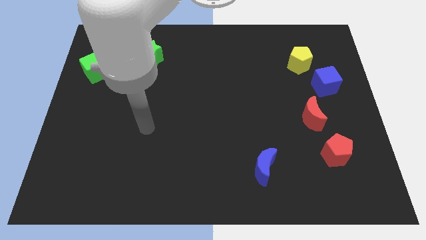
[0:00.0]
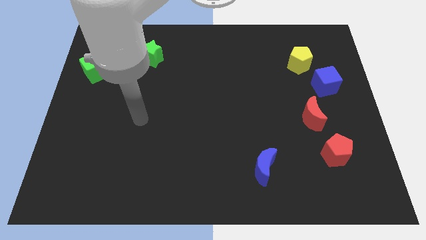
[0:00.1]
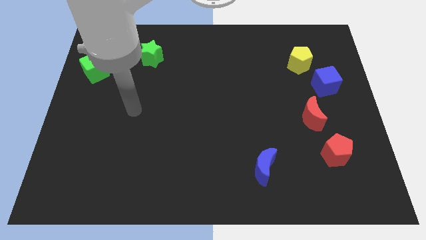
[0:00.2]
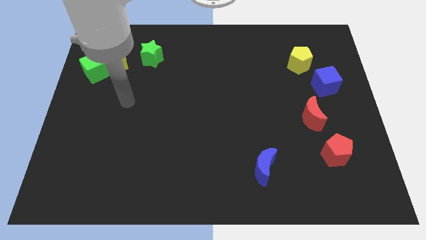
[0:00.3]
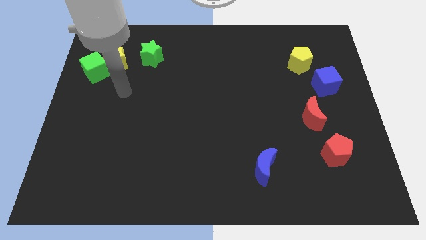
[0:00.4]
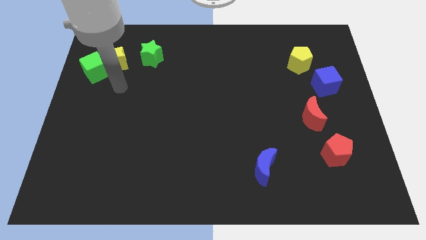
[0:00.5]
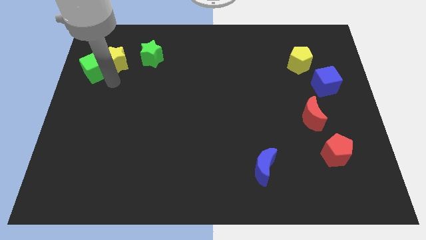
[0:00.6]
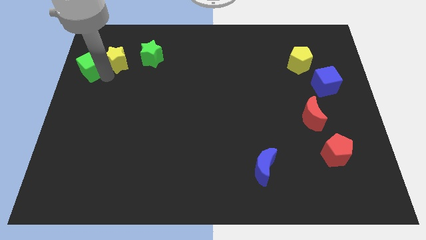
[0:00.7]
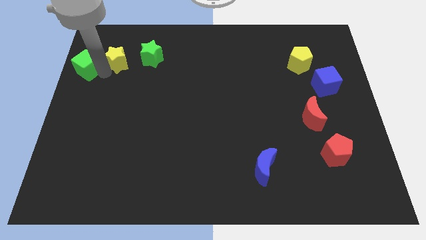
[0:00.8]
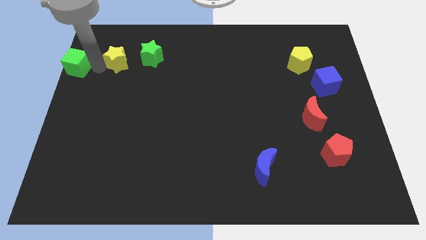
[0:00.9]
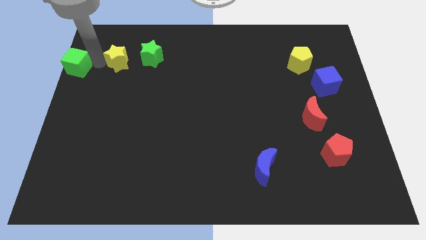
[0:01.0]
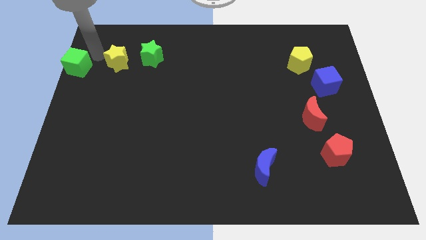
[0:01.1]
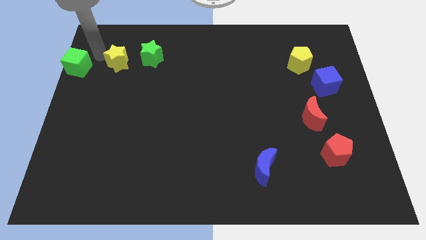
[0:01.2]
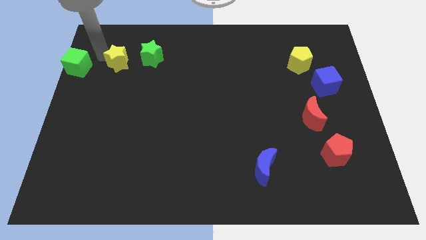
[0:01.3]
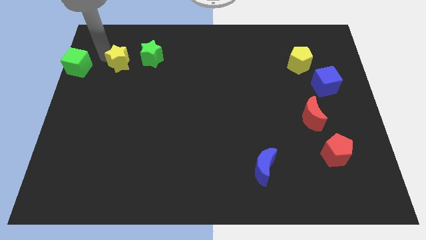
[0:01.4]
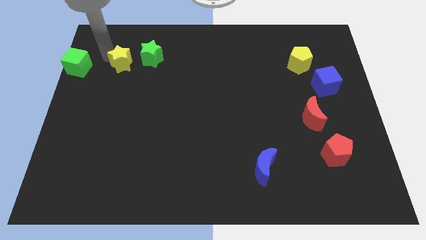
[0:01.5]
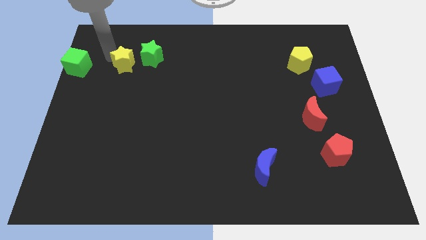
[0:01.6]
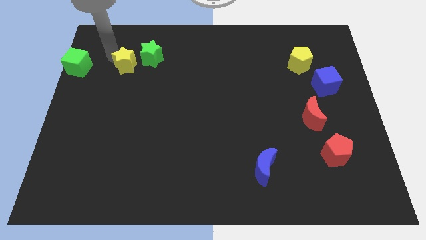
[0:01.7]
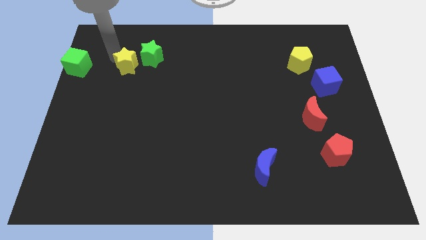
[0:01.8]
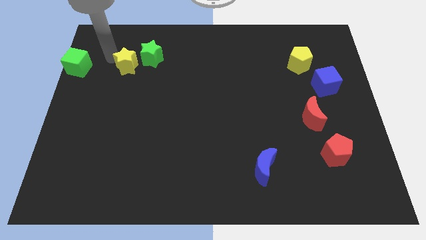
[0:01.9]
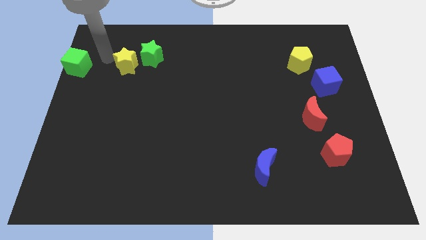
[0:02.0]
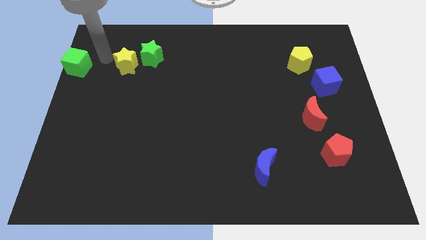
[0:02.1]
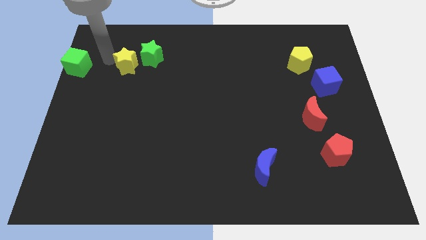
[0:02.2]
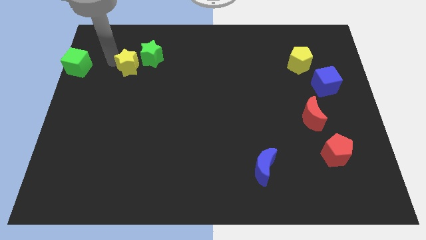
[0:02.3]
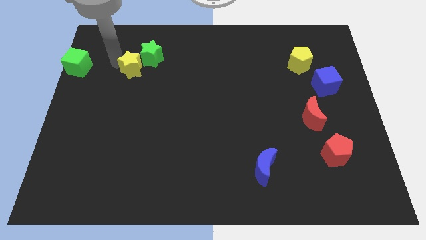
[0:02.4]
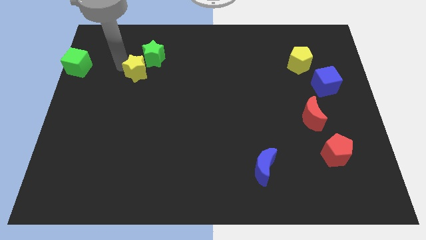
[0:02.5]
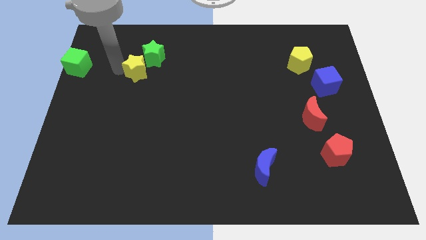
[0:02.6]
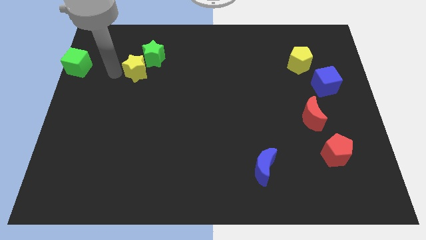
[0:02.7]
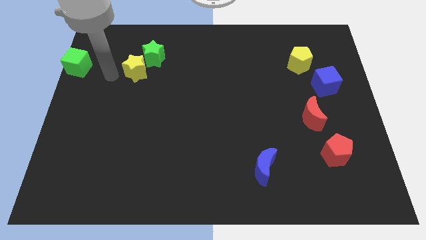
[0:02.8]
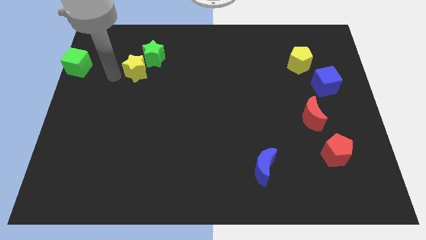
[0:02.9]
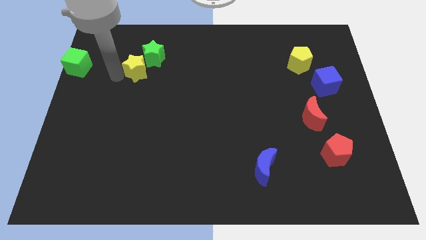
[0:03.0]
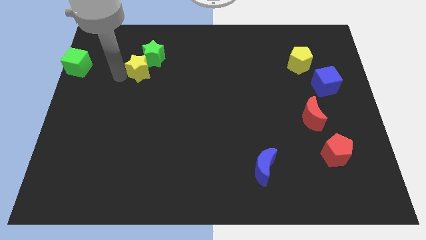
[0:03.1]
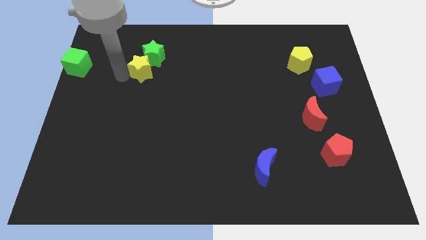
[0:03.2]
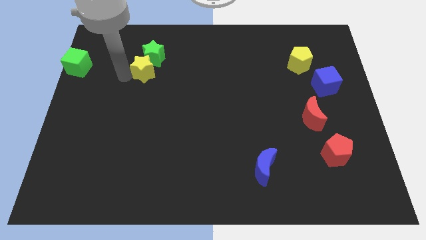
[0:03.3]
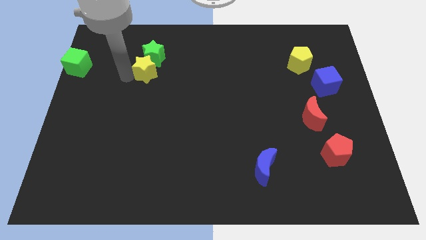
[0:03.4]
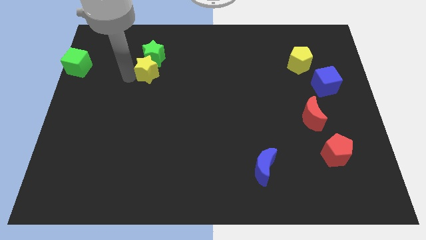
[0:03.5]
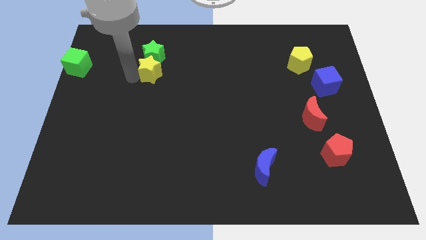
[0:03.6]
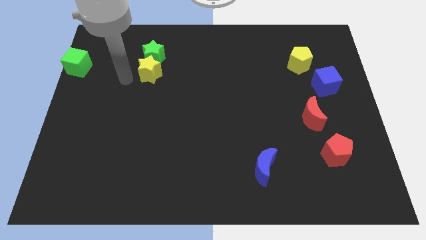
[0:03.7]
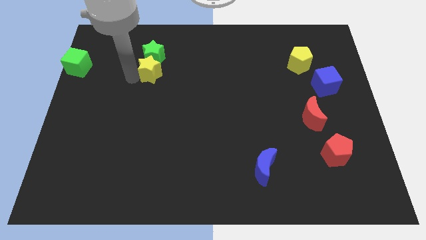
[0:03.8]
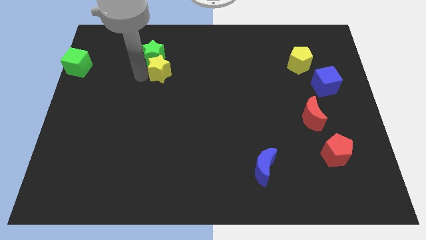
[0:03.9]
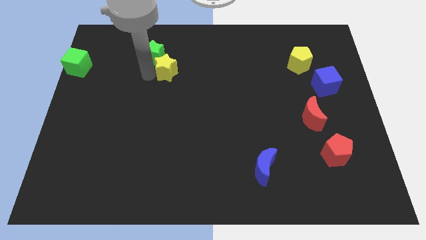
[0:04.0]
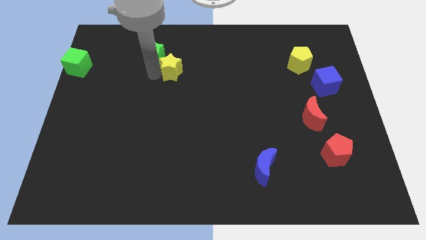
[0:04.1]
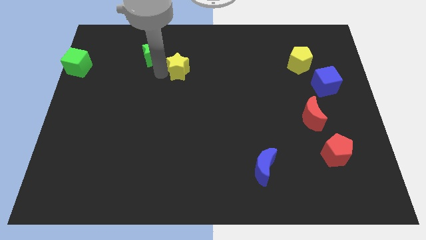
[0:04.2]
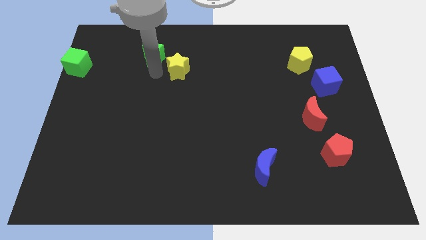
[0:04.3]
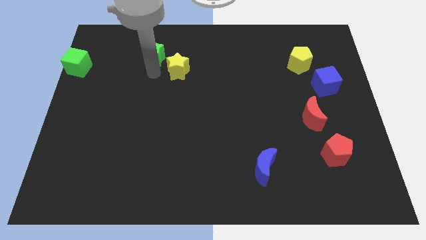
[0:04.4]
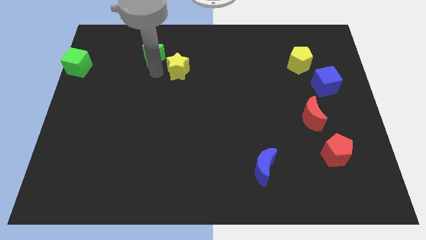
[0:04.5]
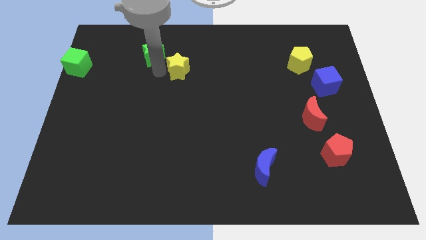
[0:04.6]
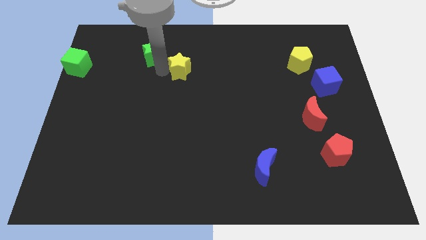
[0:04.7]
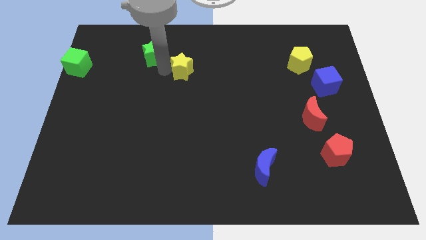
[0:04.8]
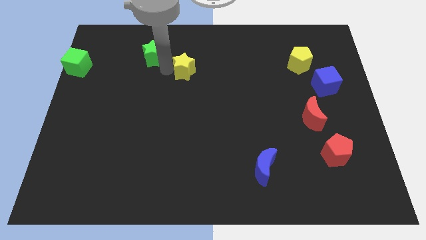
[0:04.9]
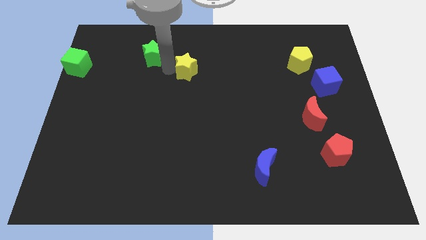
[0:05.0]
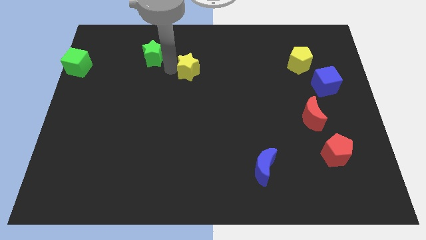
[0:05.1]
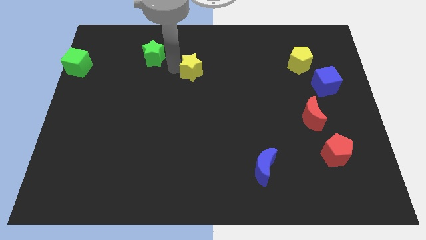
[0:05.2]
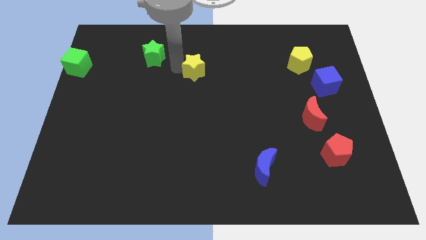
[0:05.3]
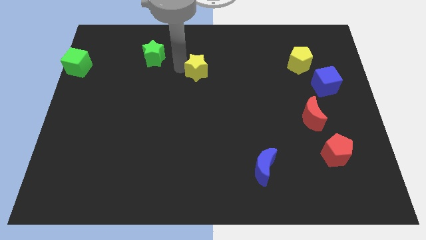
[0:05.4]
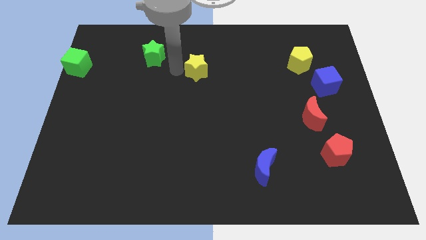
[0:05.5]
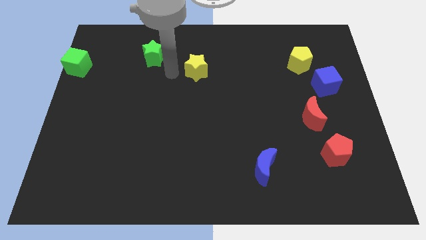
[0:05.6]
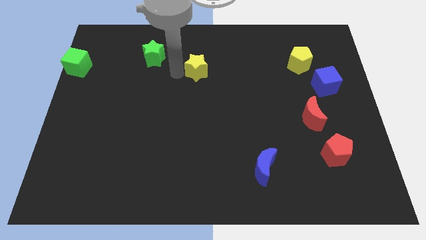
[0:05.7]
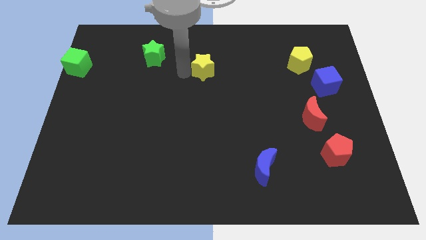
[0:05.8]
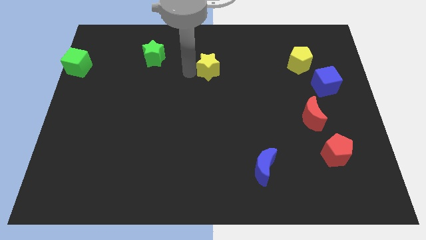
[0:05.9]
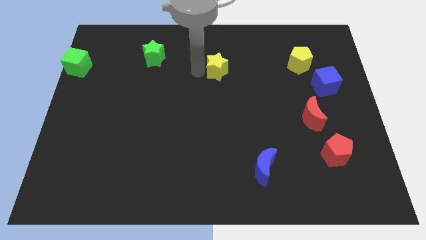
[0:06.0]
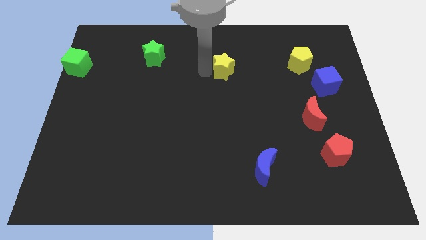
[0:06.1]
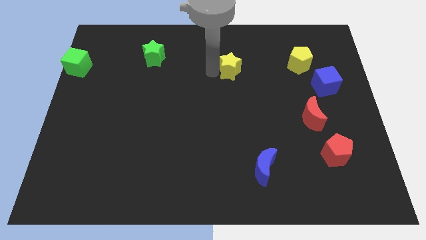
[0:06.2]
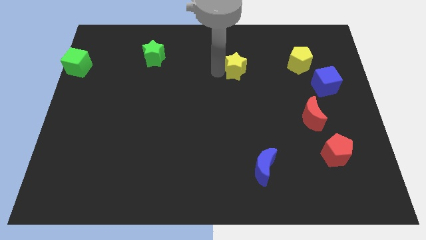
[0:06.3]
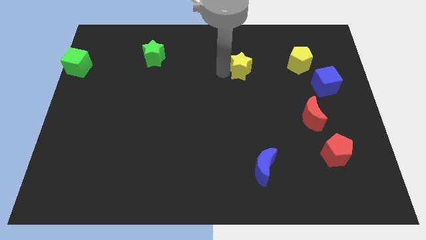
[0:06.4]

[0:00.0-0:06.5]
put the yellow star to the left side of the yellow pentagon
